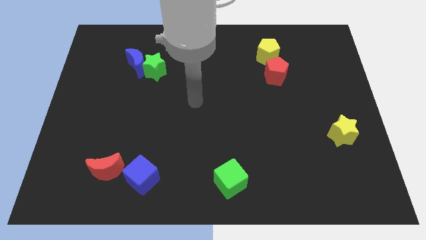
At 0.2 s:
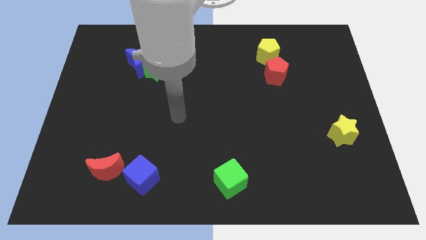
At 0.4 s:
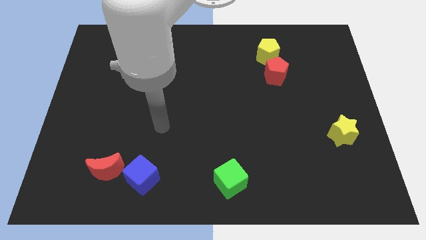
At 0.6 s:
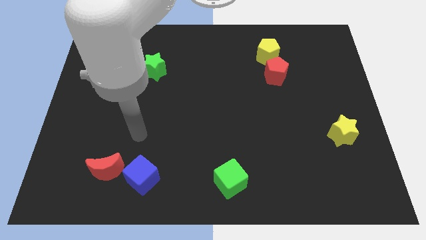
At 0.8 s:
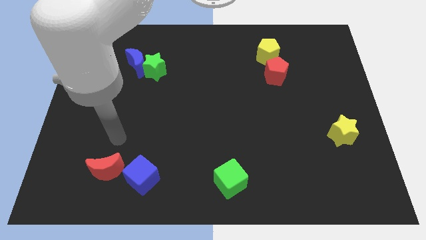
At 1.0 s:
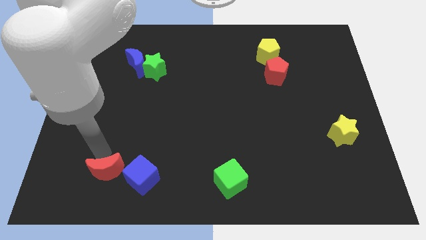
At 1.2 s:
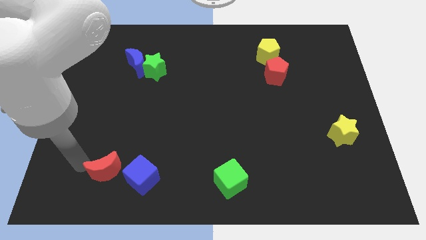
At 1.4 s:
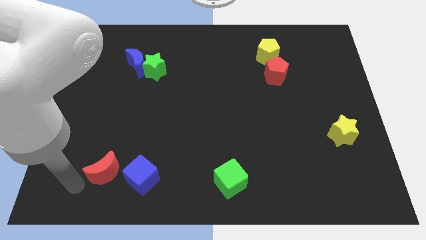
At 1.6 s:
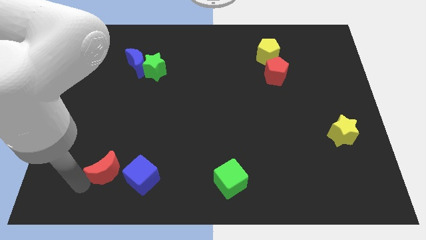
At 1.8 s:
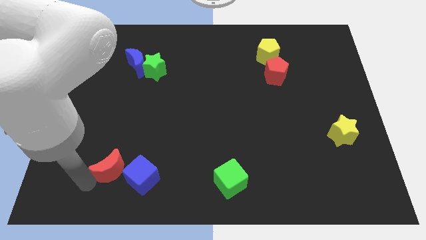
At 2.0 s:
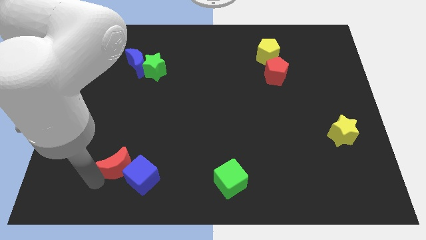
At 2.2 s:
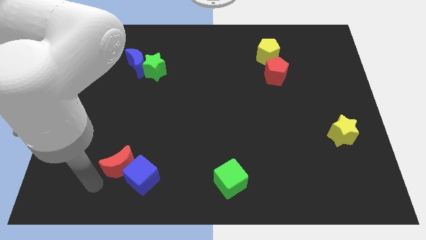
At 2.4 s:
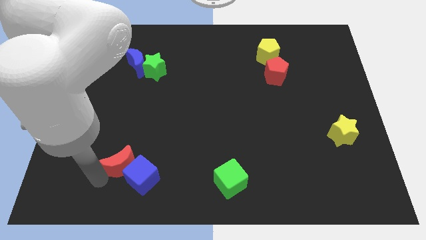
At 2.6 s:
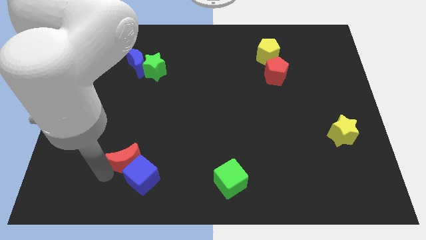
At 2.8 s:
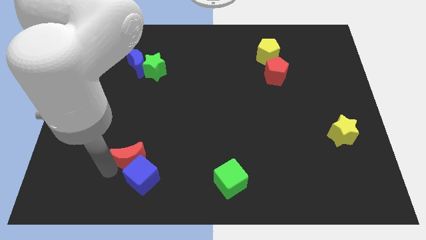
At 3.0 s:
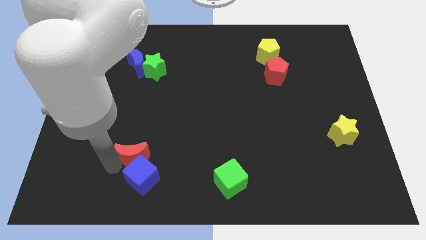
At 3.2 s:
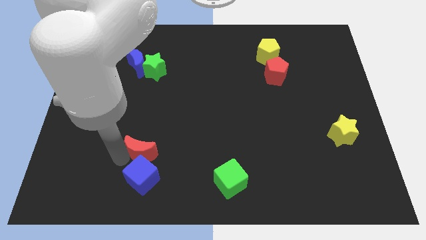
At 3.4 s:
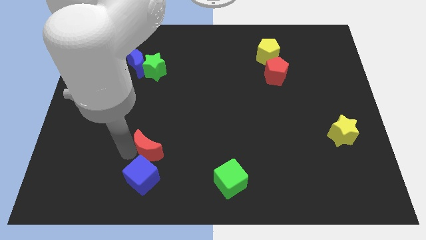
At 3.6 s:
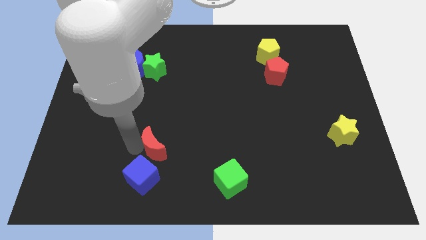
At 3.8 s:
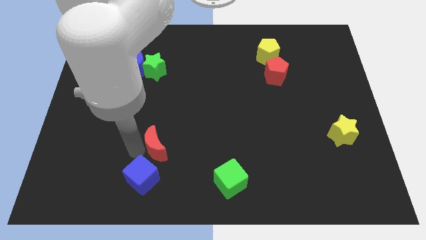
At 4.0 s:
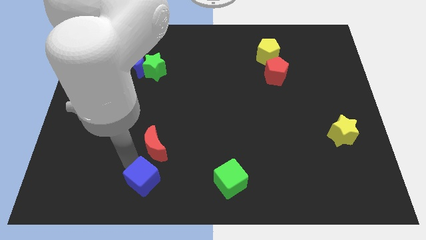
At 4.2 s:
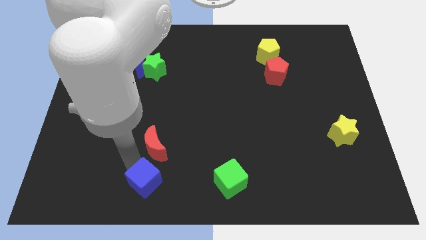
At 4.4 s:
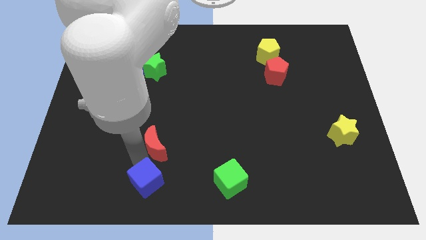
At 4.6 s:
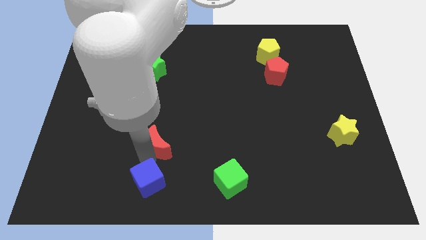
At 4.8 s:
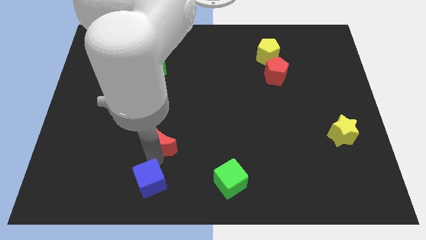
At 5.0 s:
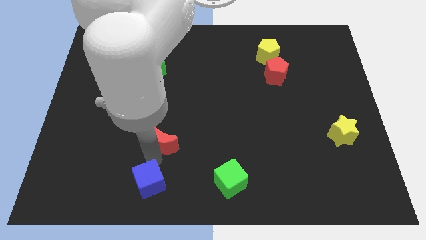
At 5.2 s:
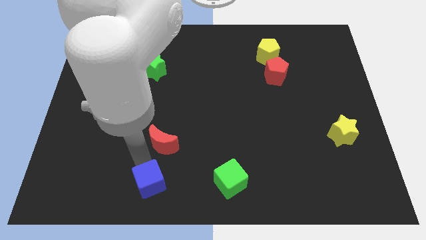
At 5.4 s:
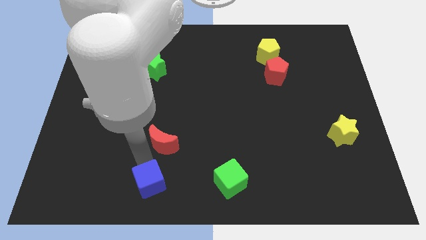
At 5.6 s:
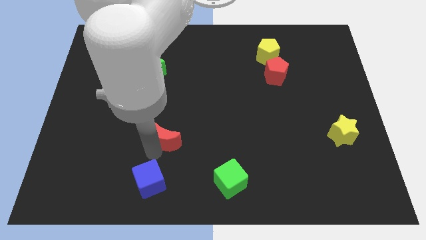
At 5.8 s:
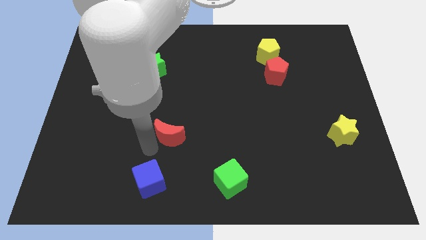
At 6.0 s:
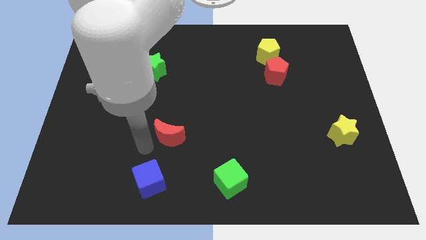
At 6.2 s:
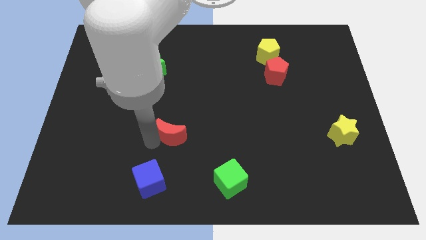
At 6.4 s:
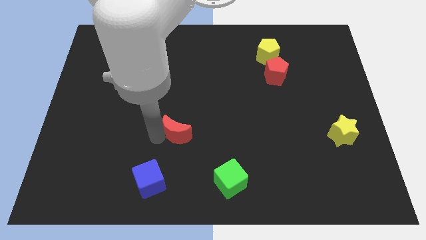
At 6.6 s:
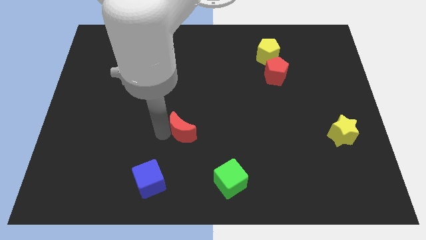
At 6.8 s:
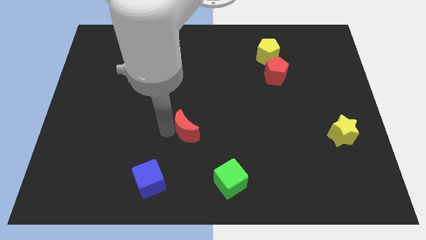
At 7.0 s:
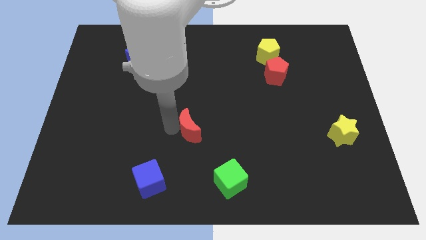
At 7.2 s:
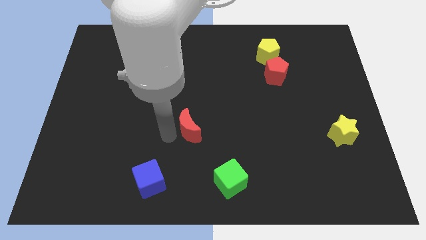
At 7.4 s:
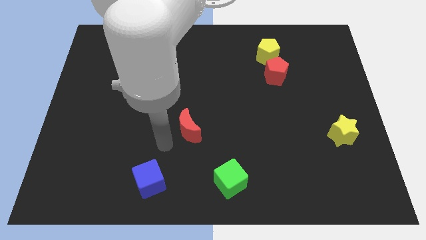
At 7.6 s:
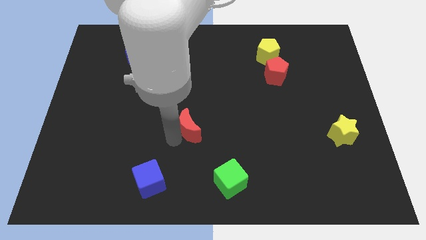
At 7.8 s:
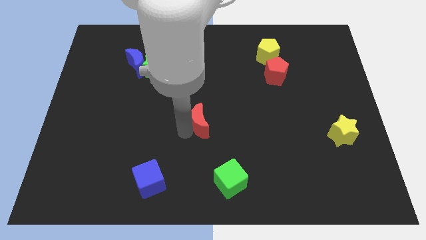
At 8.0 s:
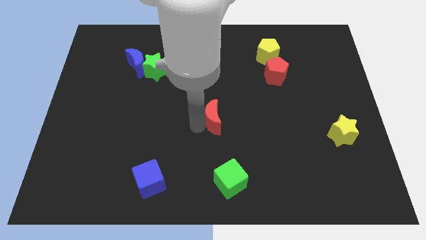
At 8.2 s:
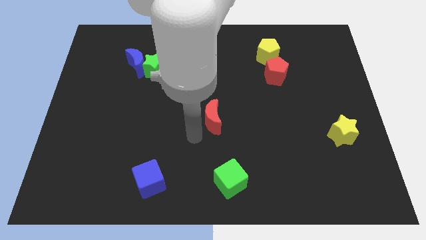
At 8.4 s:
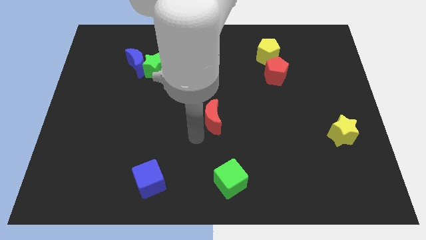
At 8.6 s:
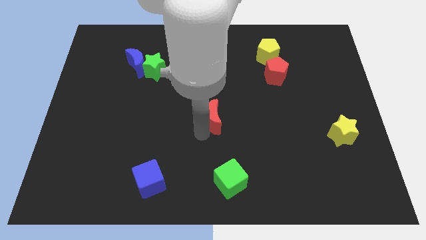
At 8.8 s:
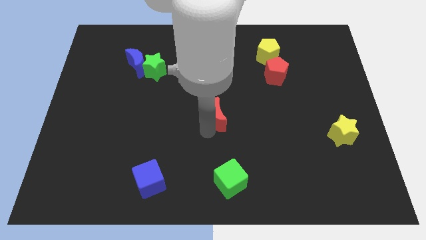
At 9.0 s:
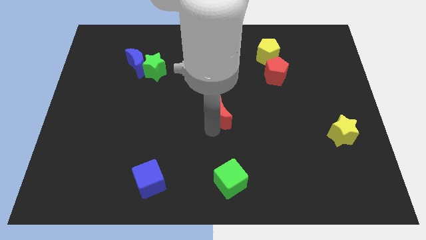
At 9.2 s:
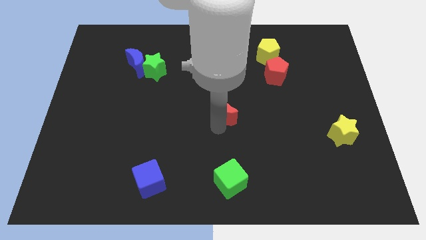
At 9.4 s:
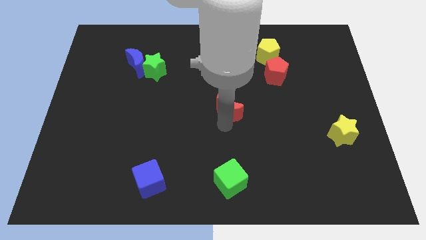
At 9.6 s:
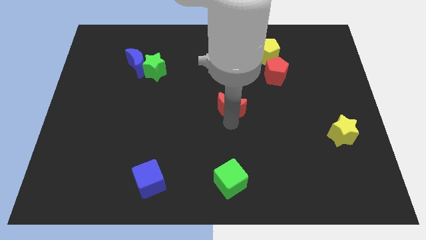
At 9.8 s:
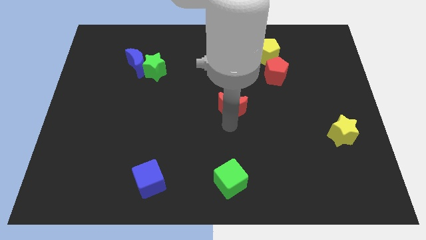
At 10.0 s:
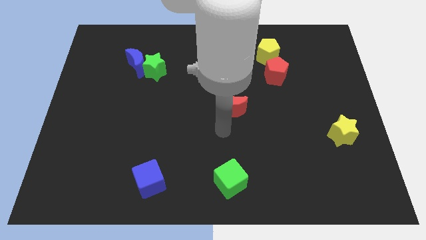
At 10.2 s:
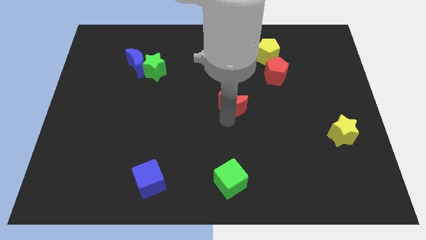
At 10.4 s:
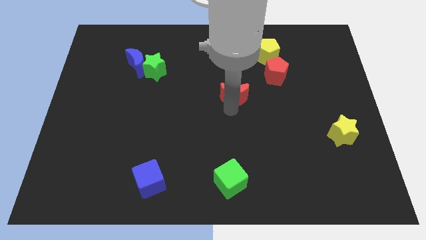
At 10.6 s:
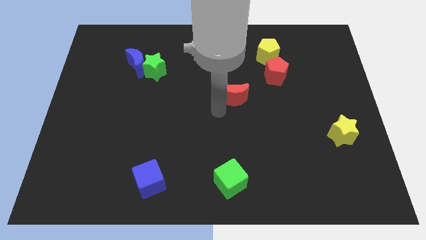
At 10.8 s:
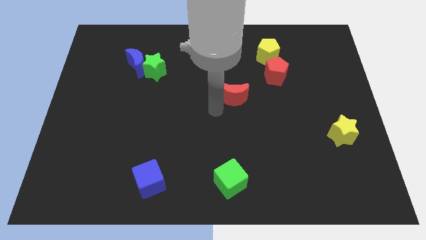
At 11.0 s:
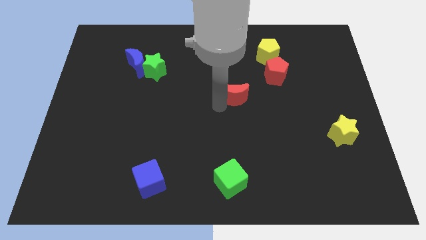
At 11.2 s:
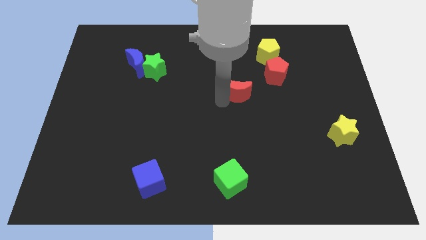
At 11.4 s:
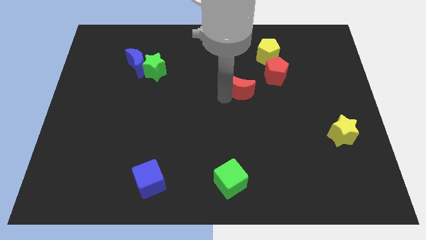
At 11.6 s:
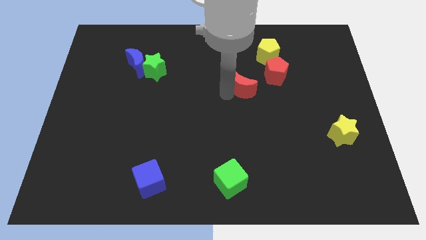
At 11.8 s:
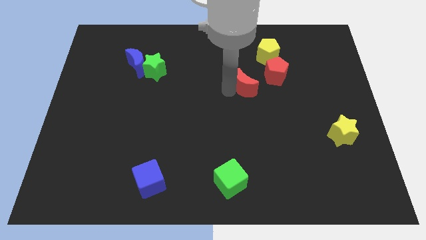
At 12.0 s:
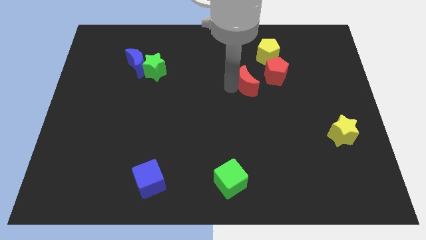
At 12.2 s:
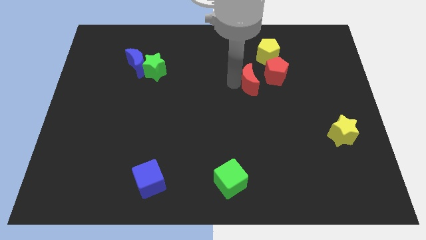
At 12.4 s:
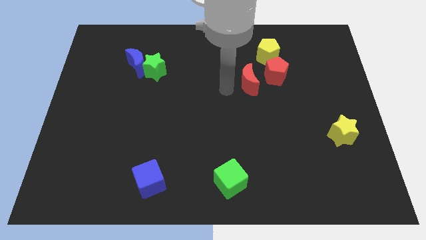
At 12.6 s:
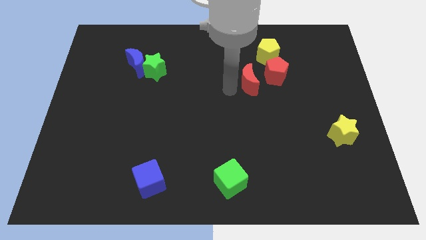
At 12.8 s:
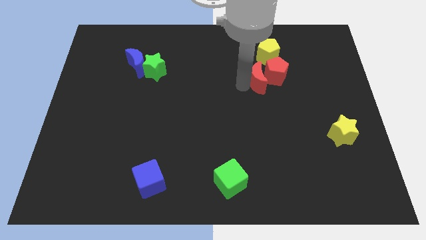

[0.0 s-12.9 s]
slide the red moon to the red pentagon
